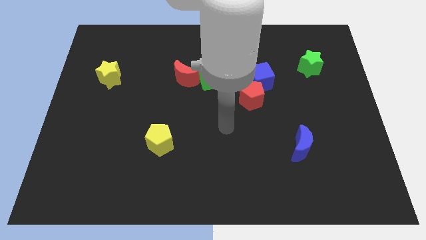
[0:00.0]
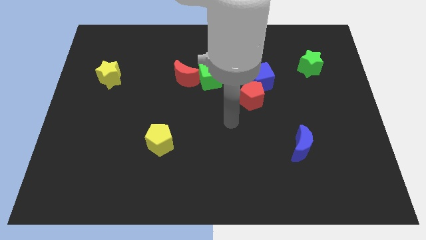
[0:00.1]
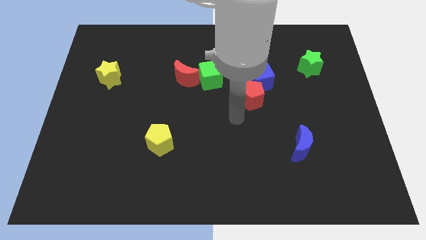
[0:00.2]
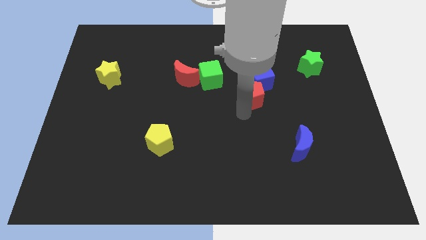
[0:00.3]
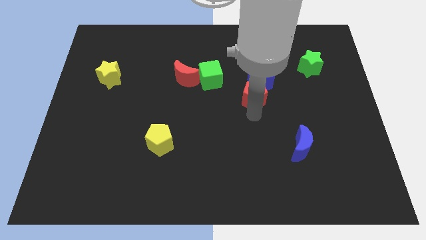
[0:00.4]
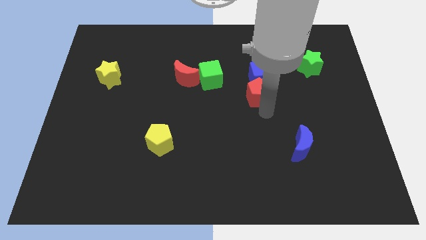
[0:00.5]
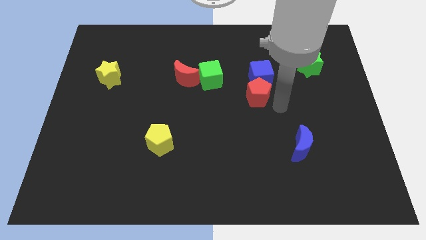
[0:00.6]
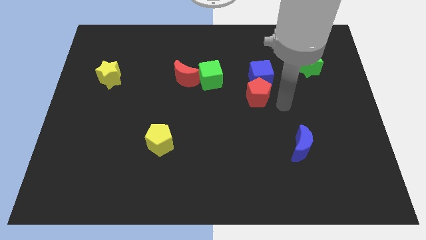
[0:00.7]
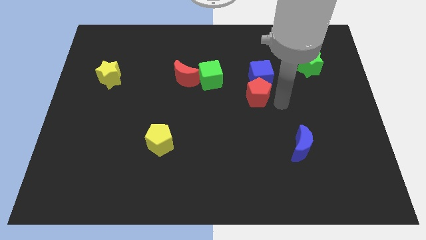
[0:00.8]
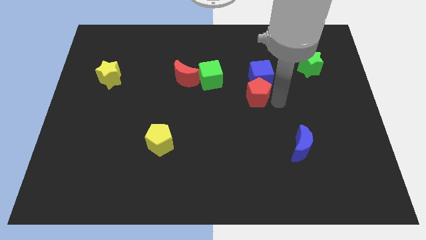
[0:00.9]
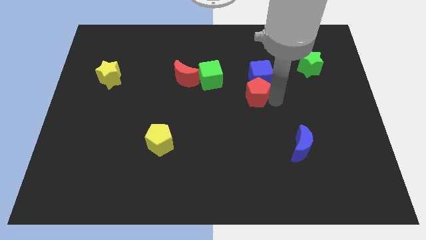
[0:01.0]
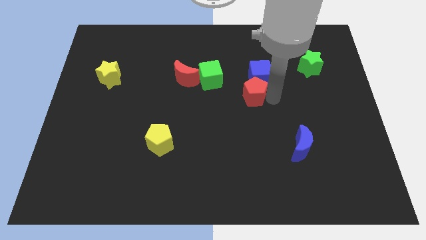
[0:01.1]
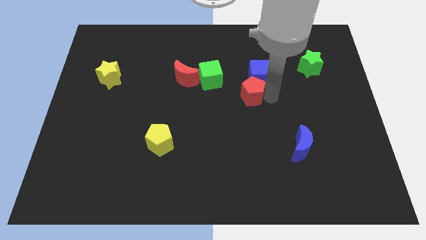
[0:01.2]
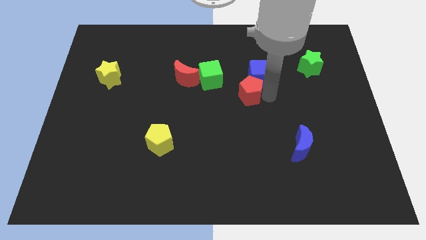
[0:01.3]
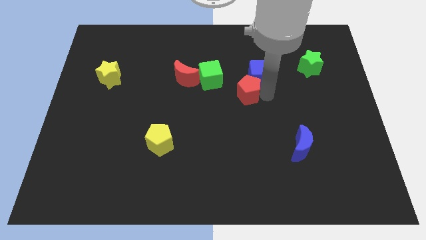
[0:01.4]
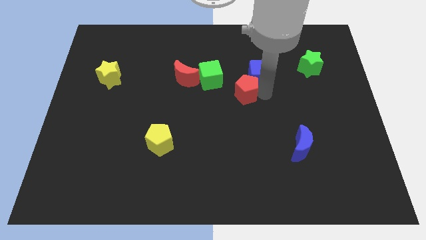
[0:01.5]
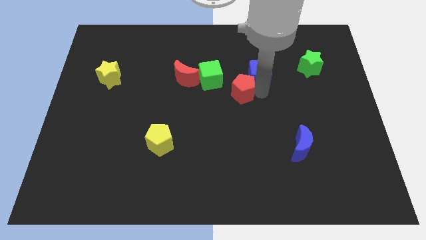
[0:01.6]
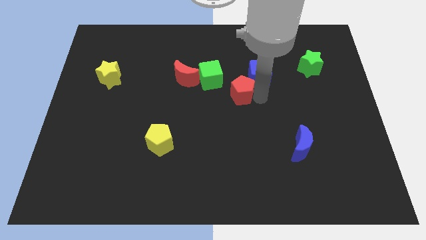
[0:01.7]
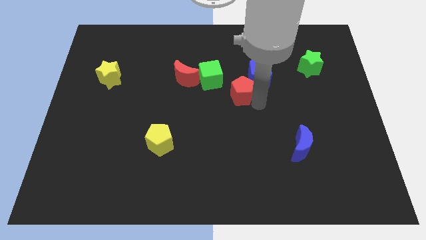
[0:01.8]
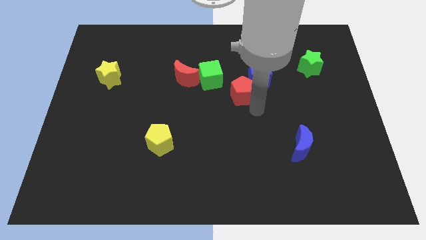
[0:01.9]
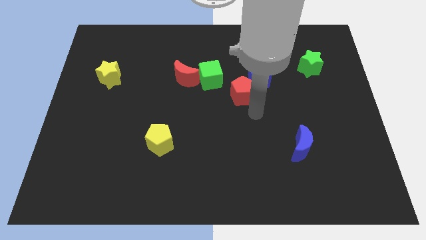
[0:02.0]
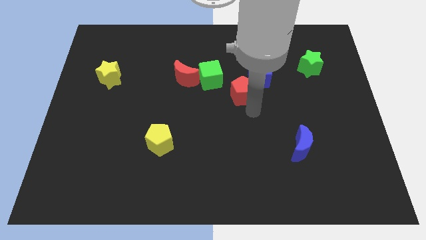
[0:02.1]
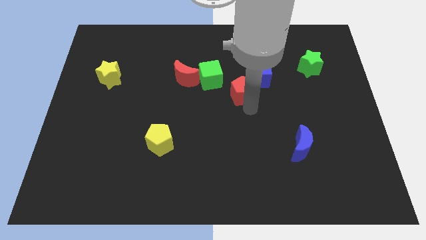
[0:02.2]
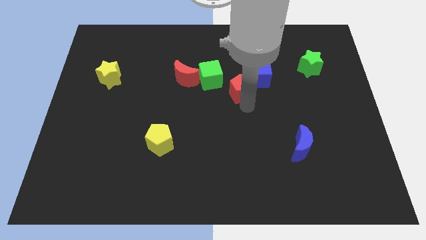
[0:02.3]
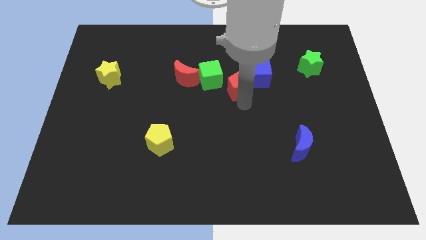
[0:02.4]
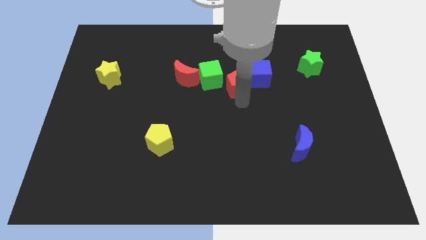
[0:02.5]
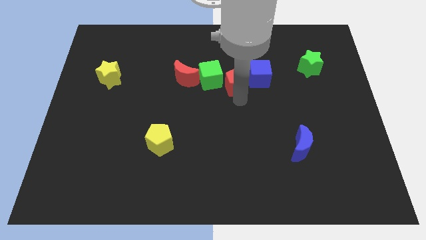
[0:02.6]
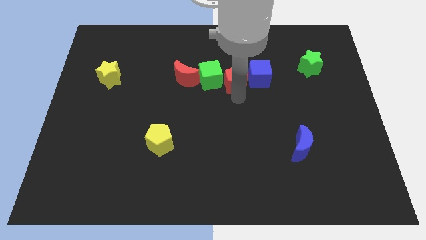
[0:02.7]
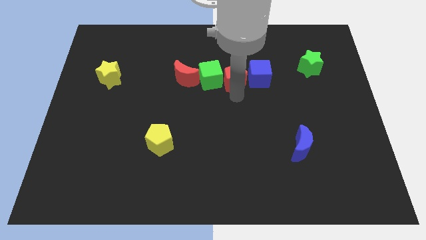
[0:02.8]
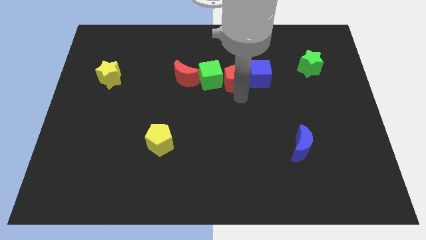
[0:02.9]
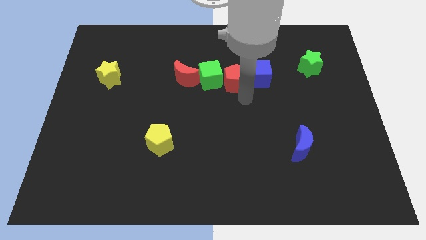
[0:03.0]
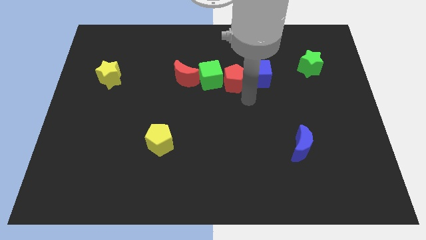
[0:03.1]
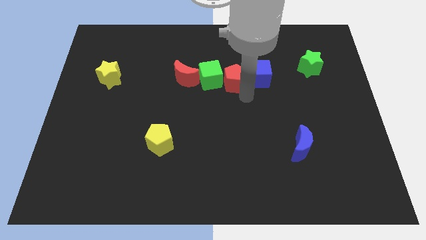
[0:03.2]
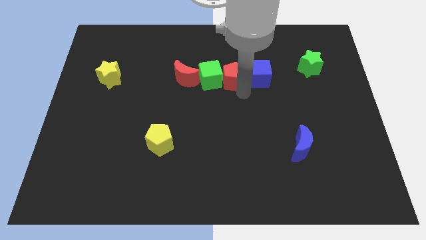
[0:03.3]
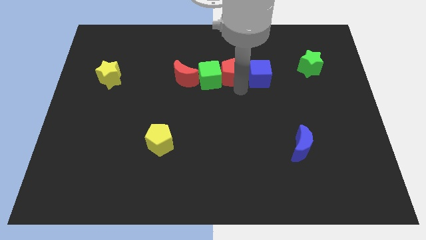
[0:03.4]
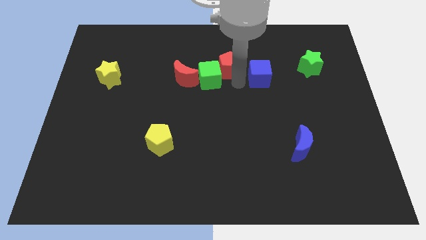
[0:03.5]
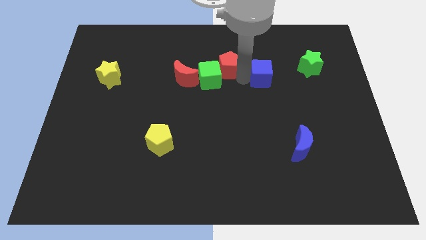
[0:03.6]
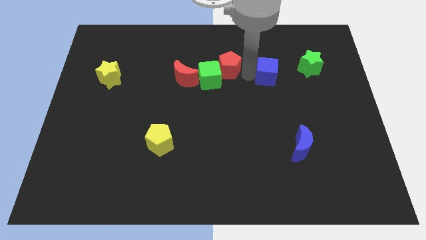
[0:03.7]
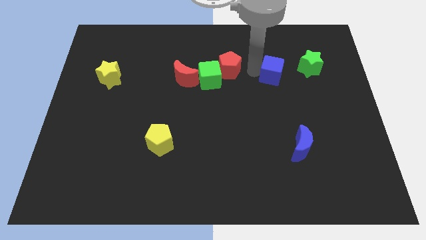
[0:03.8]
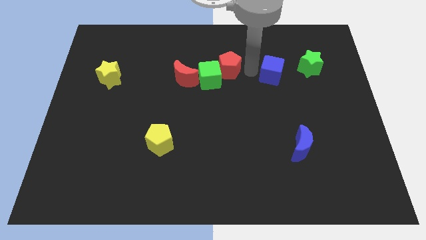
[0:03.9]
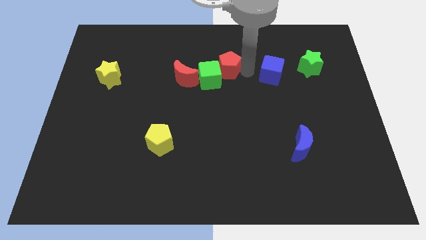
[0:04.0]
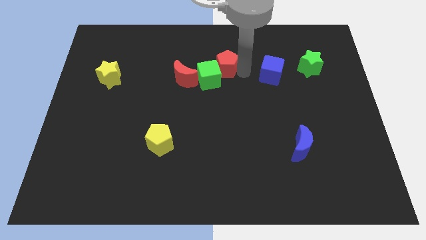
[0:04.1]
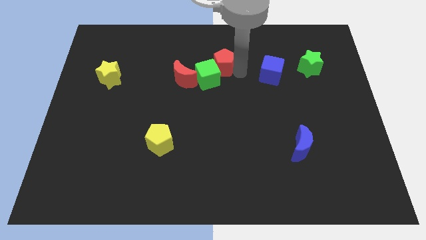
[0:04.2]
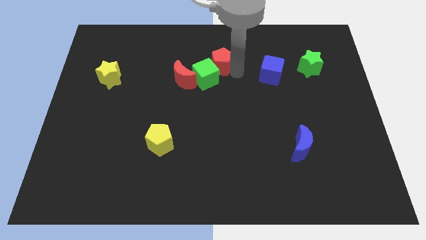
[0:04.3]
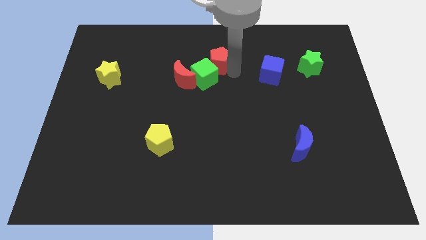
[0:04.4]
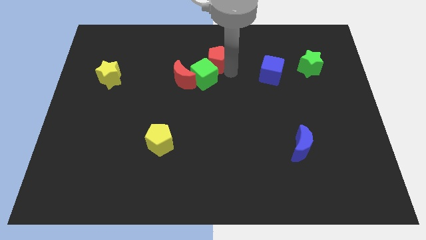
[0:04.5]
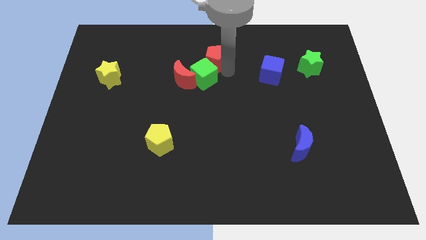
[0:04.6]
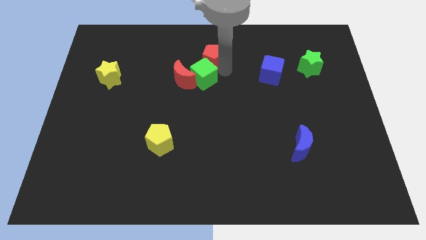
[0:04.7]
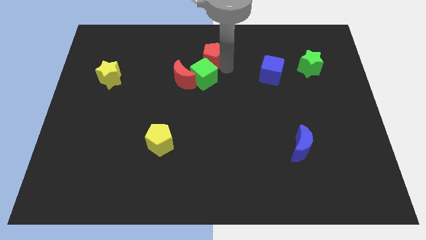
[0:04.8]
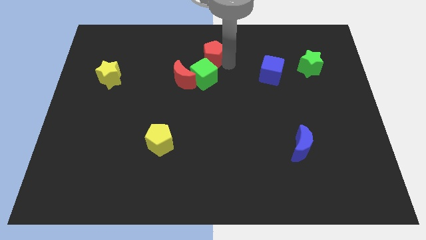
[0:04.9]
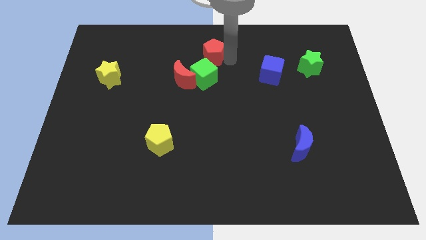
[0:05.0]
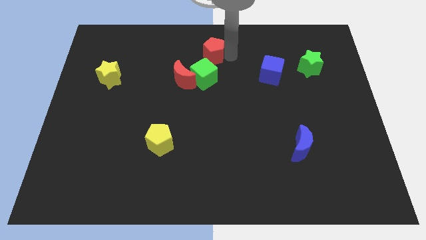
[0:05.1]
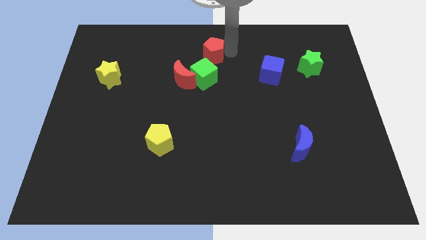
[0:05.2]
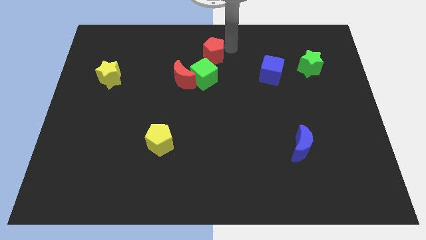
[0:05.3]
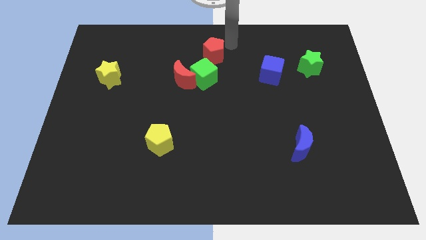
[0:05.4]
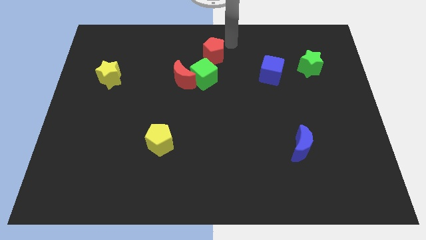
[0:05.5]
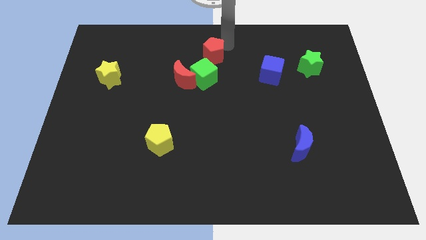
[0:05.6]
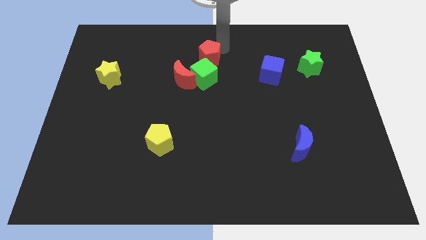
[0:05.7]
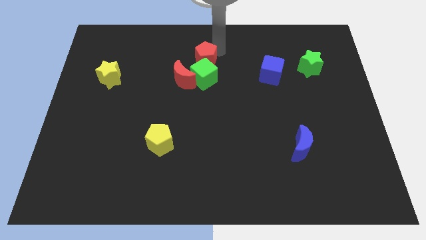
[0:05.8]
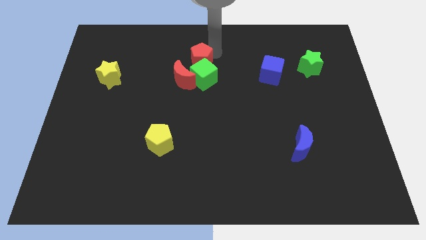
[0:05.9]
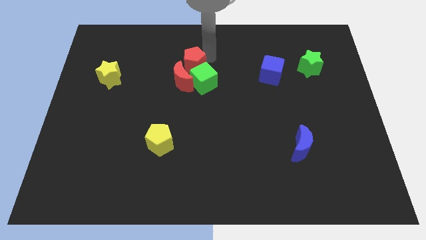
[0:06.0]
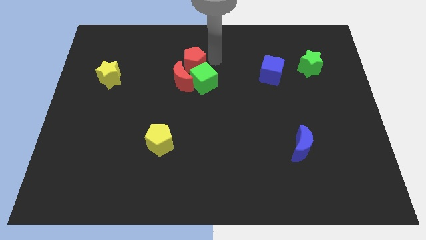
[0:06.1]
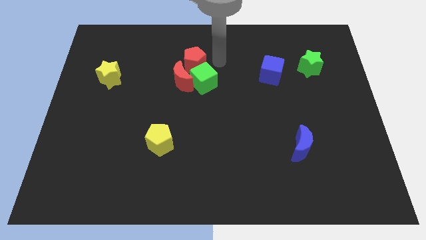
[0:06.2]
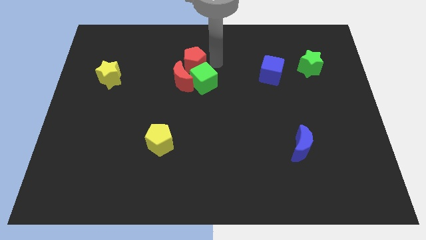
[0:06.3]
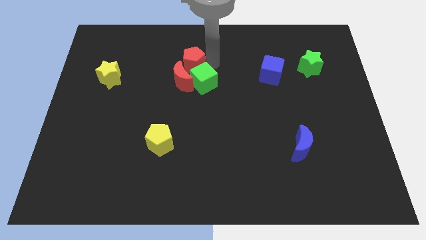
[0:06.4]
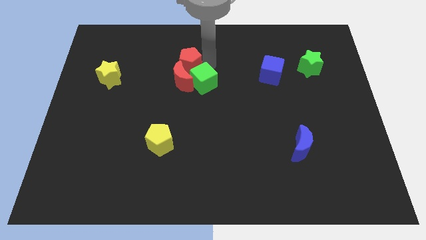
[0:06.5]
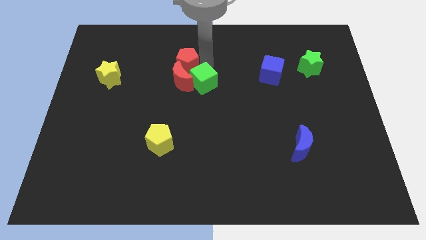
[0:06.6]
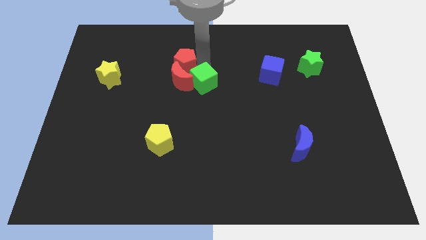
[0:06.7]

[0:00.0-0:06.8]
move the red pentagon to the top left side of the red moon
